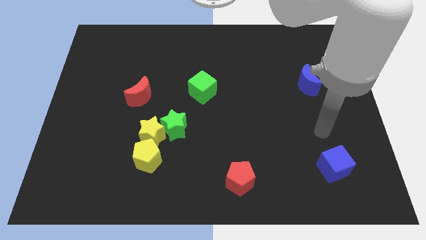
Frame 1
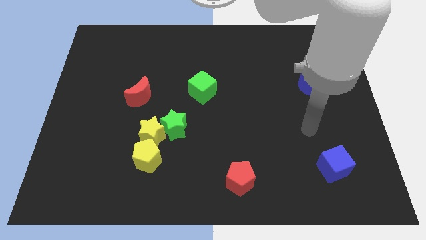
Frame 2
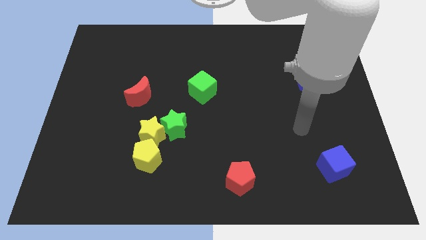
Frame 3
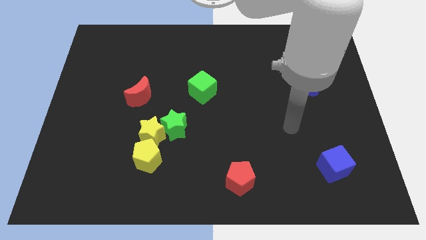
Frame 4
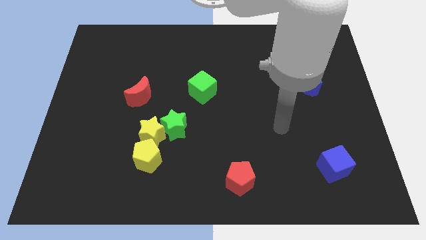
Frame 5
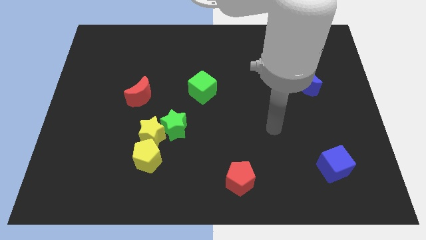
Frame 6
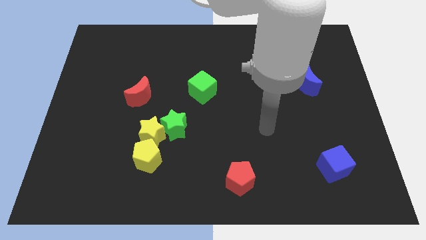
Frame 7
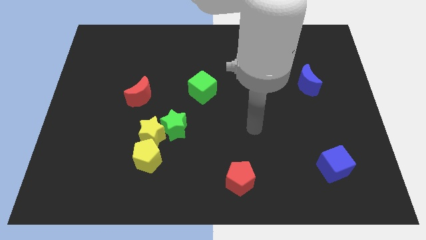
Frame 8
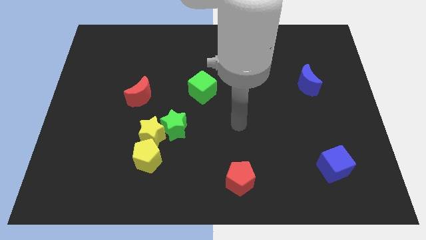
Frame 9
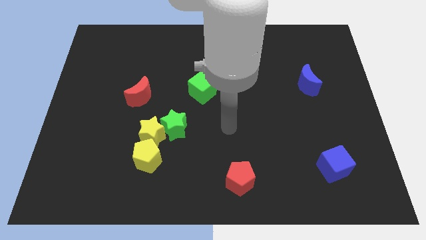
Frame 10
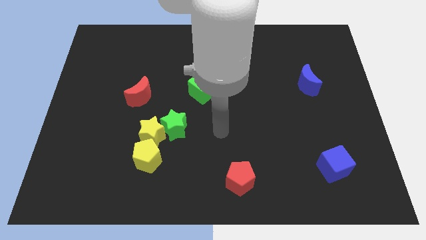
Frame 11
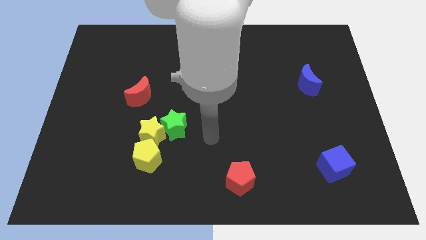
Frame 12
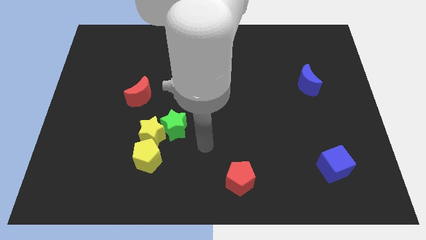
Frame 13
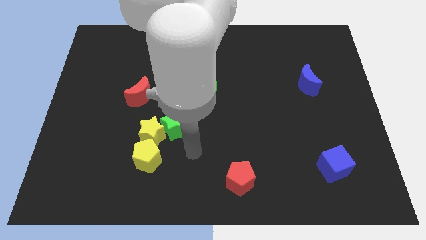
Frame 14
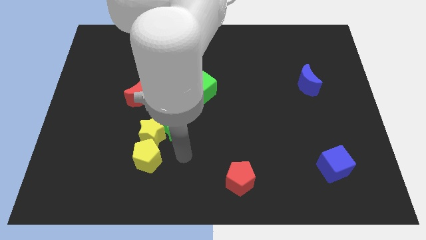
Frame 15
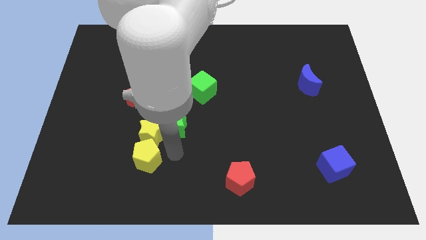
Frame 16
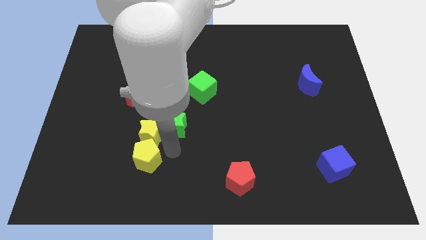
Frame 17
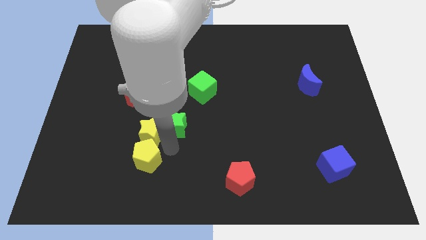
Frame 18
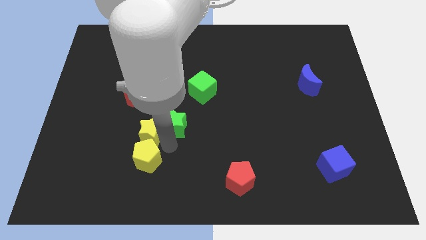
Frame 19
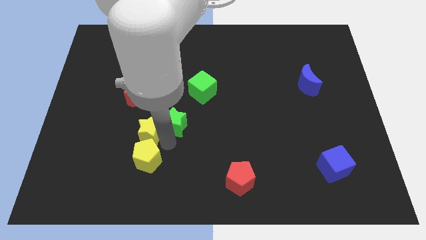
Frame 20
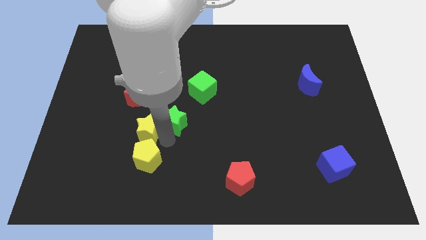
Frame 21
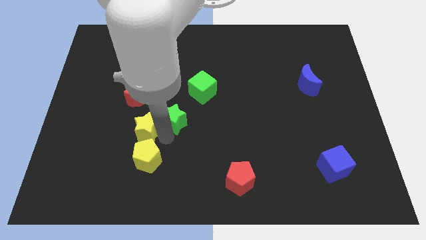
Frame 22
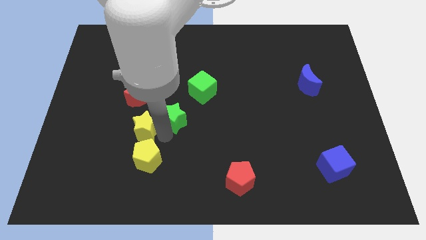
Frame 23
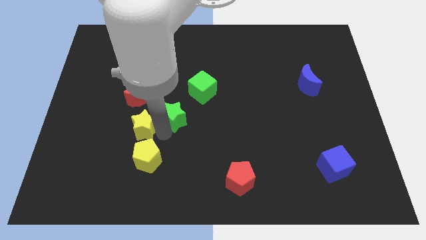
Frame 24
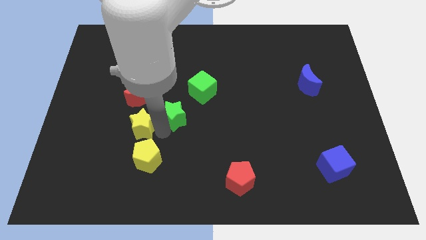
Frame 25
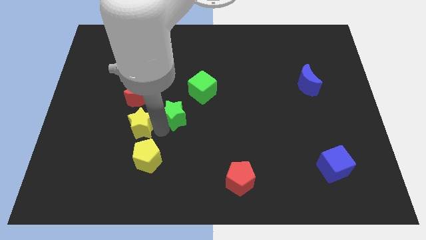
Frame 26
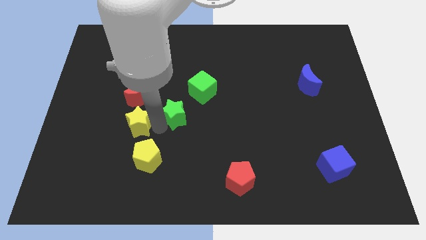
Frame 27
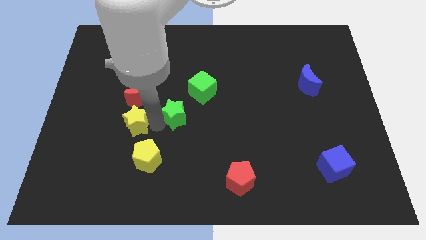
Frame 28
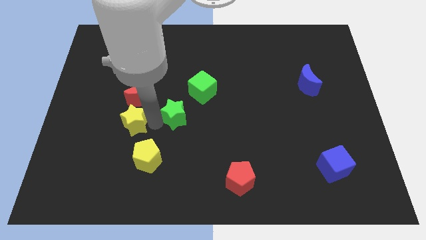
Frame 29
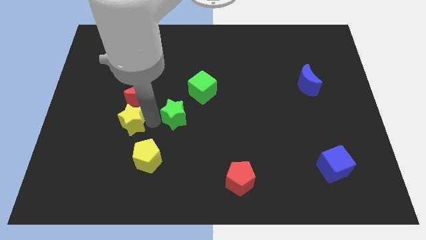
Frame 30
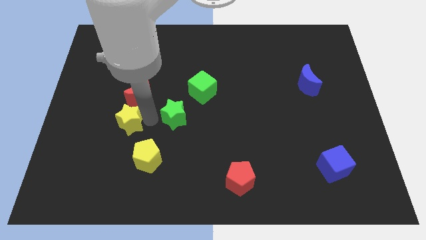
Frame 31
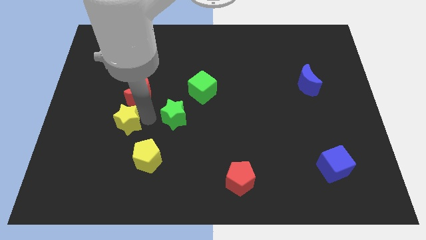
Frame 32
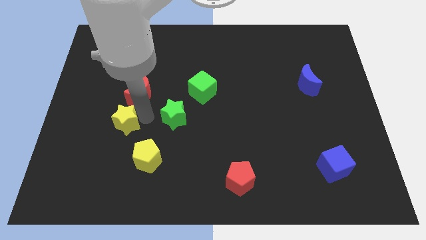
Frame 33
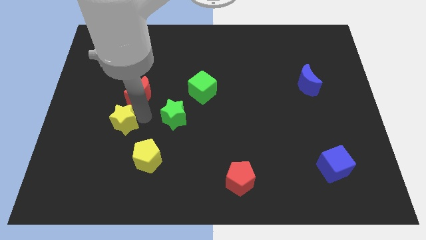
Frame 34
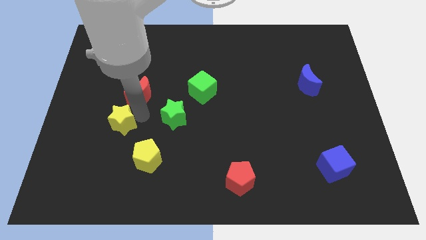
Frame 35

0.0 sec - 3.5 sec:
separate the yellow star from the green star and yellow pentagon

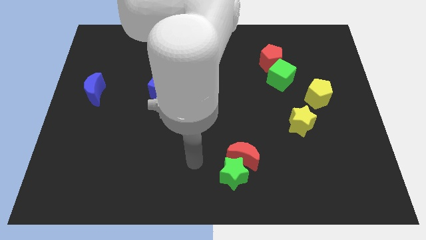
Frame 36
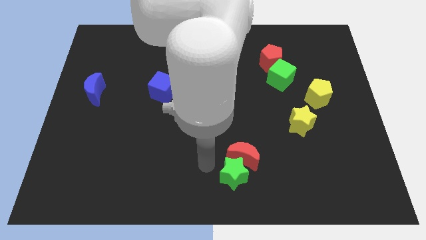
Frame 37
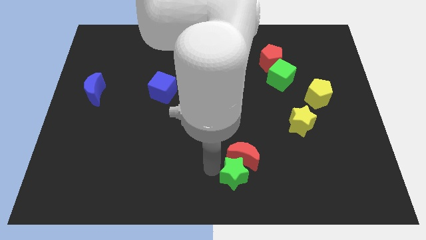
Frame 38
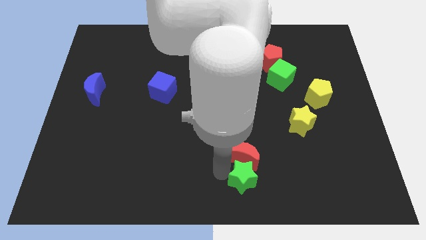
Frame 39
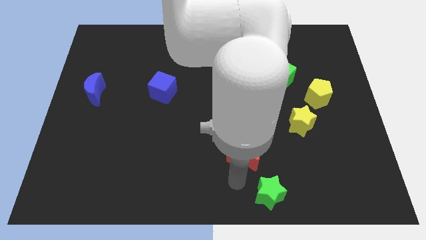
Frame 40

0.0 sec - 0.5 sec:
pull the red moon apart from the green star

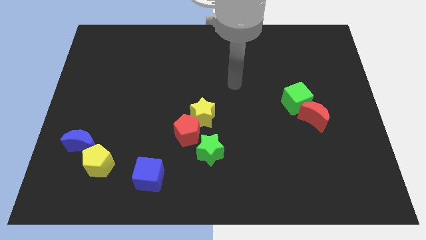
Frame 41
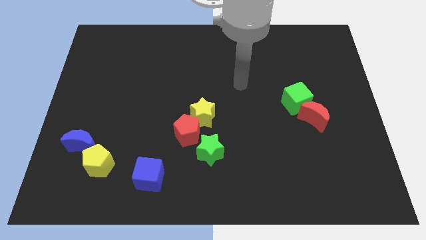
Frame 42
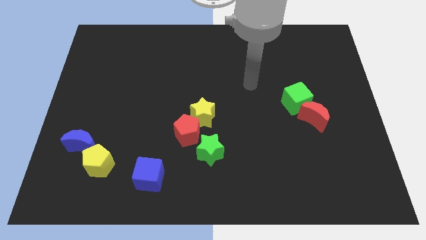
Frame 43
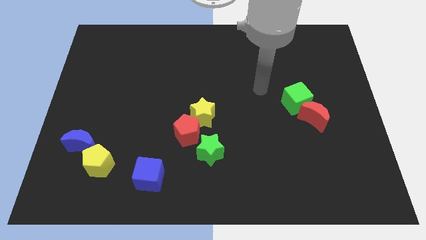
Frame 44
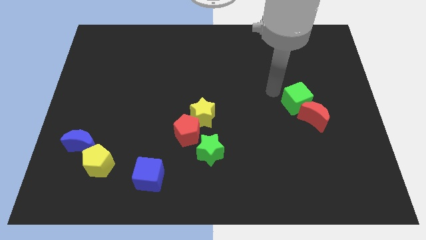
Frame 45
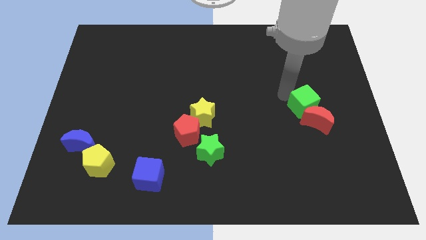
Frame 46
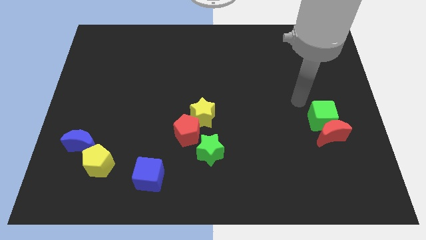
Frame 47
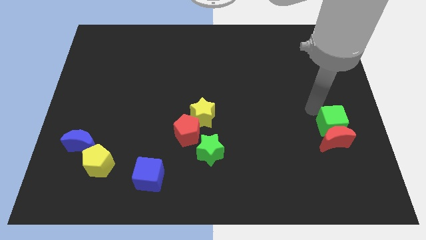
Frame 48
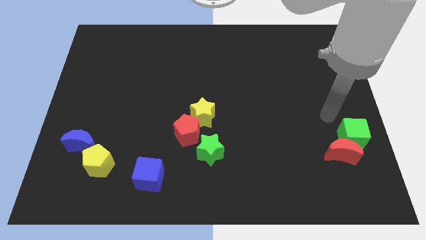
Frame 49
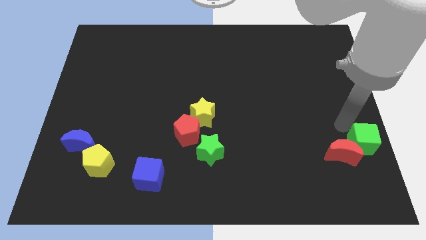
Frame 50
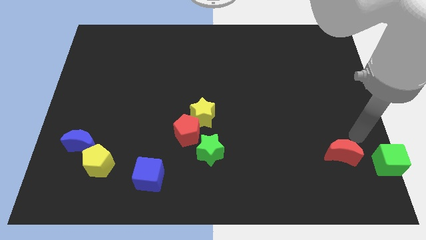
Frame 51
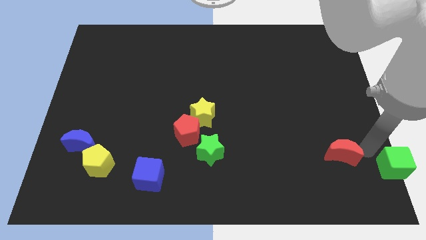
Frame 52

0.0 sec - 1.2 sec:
pull the red moon apart from the green cube

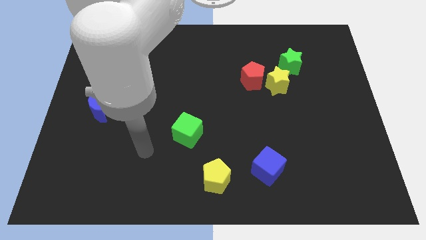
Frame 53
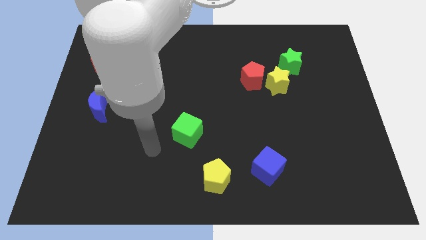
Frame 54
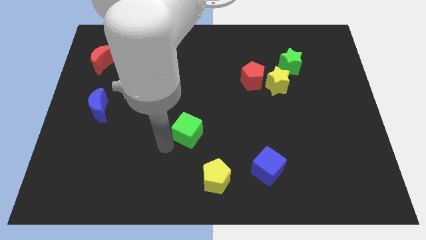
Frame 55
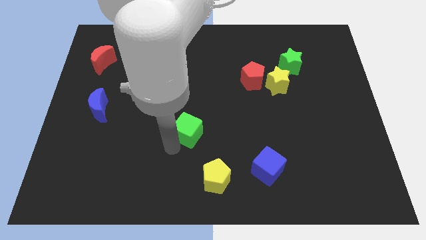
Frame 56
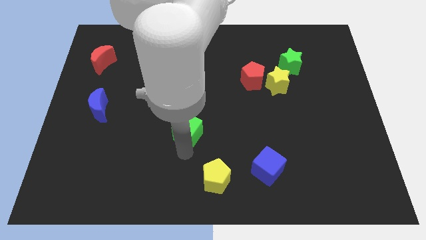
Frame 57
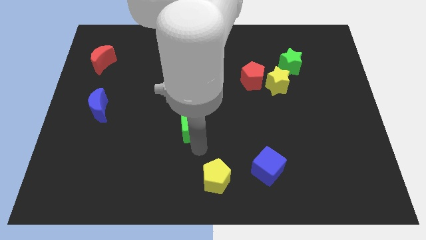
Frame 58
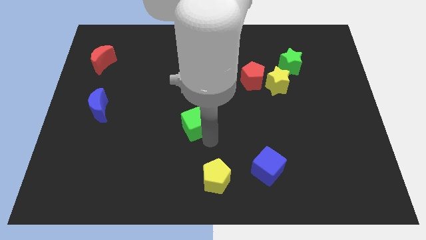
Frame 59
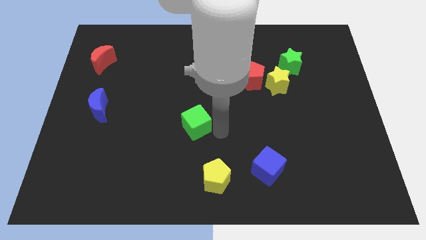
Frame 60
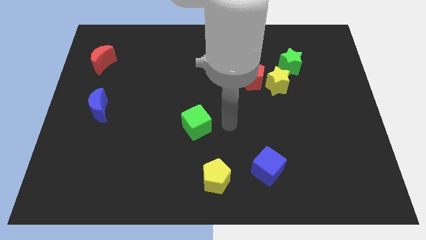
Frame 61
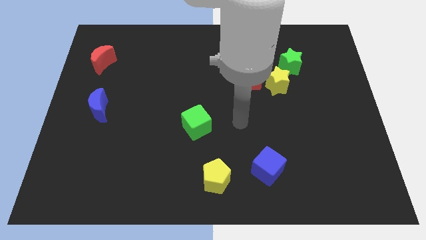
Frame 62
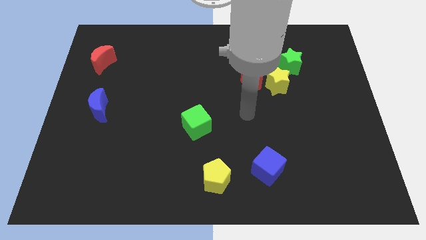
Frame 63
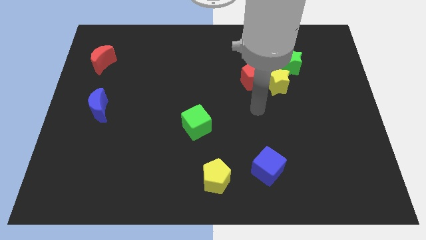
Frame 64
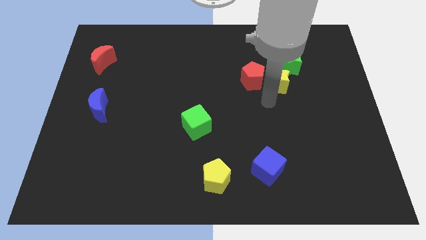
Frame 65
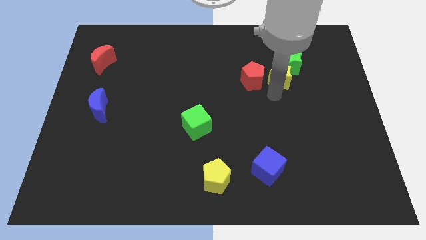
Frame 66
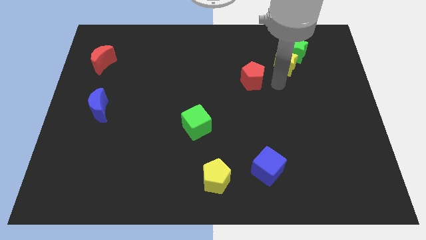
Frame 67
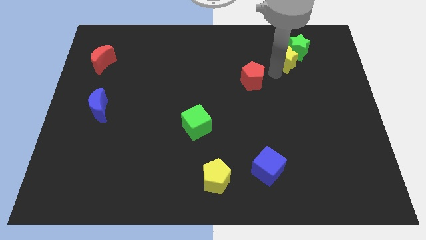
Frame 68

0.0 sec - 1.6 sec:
move the red pentagon away from the yellow star

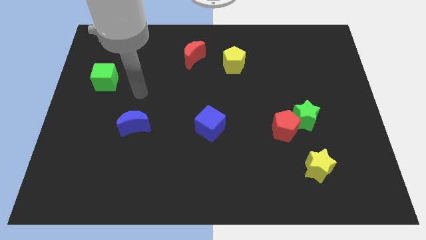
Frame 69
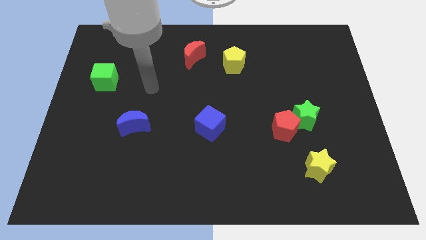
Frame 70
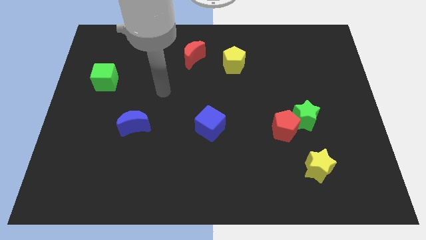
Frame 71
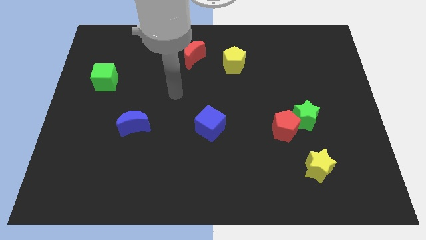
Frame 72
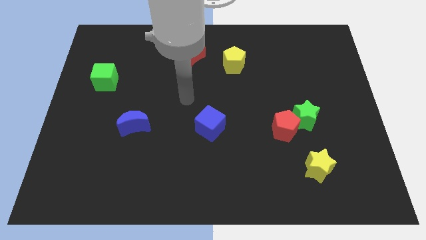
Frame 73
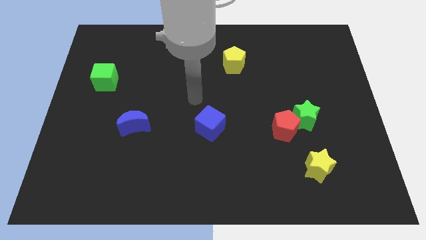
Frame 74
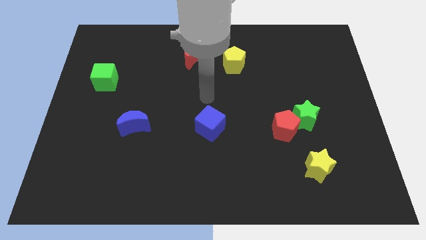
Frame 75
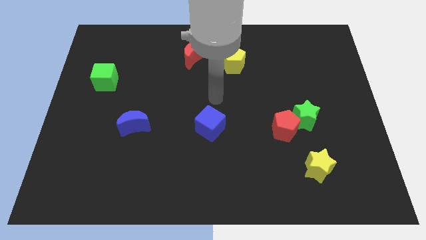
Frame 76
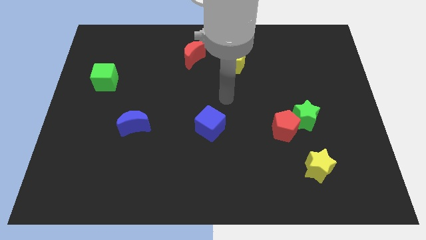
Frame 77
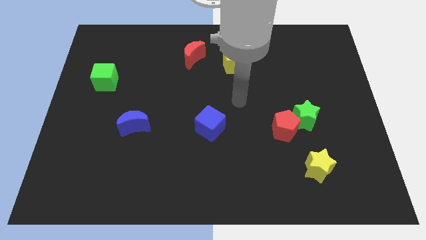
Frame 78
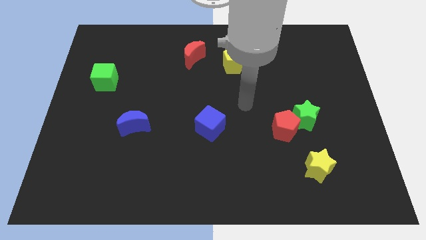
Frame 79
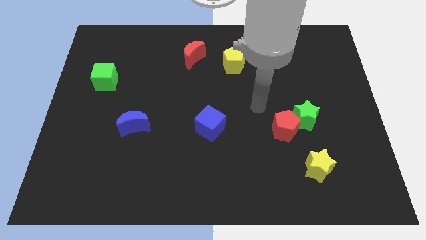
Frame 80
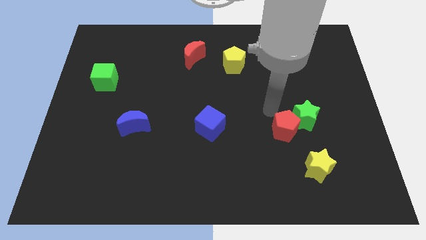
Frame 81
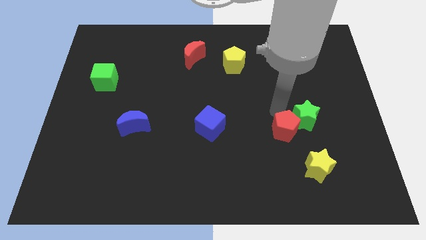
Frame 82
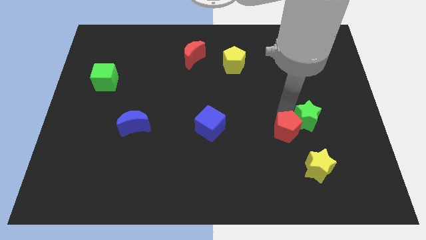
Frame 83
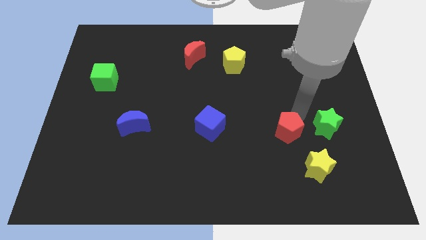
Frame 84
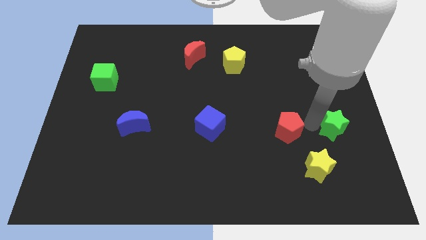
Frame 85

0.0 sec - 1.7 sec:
separate the red pentagon from the green star

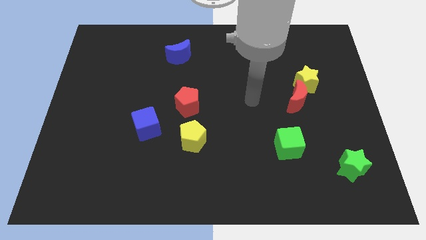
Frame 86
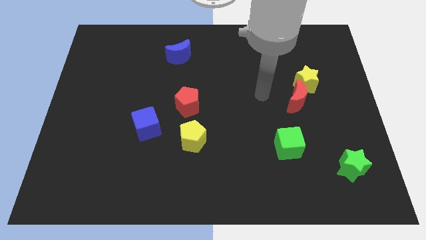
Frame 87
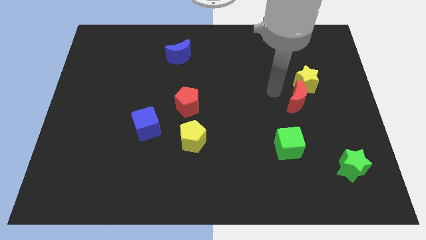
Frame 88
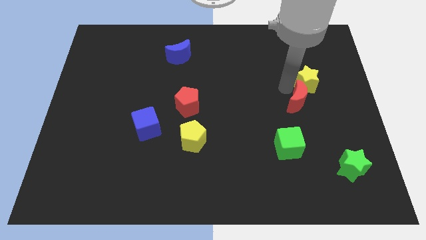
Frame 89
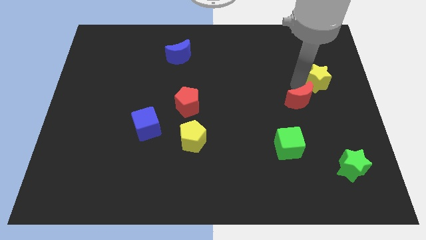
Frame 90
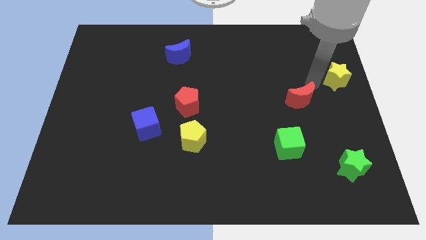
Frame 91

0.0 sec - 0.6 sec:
pull the red moon apart from the yellow star
